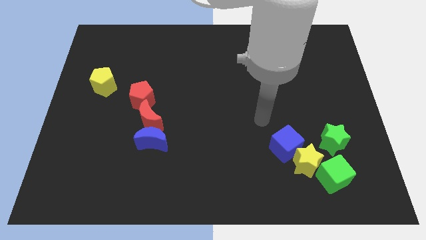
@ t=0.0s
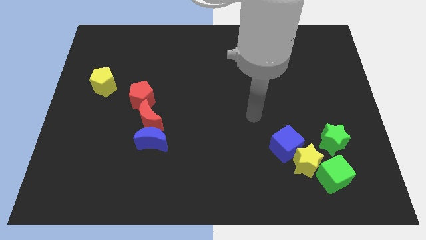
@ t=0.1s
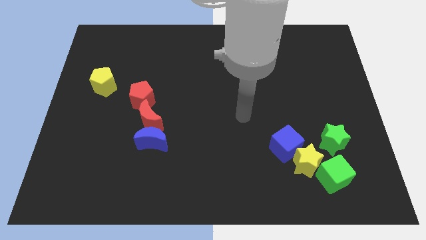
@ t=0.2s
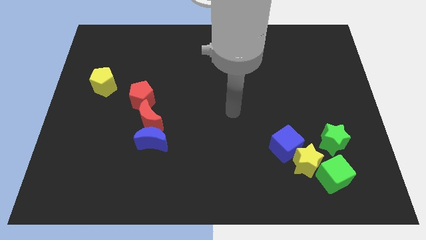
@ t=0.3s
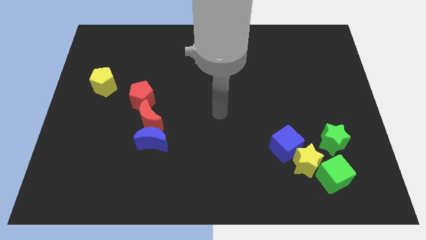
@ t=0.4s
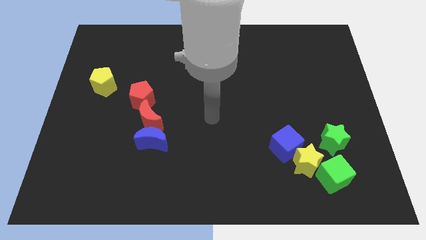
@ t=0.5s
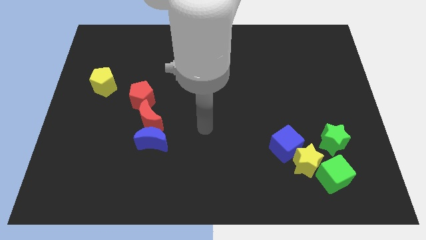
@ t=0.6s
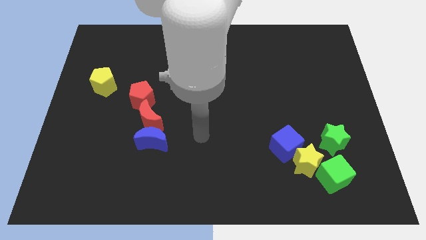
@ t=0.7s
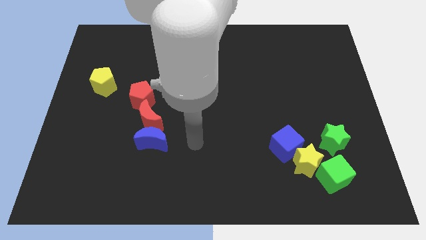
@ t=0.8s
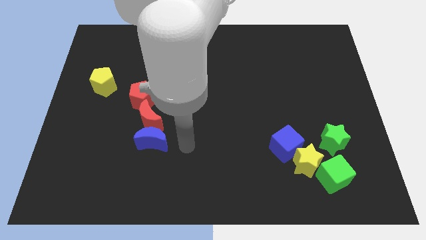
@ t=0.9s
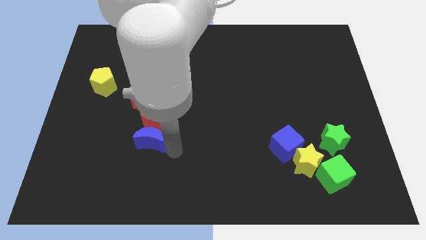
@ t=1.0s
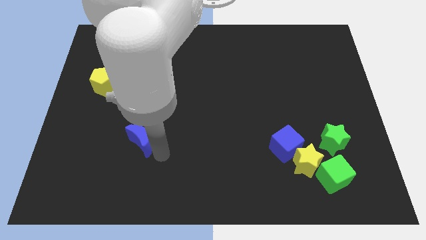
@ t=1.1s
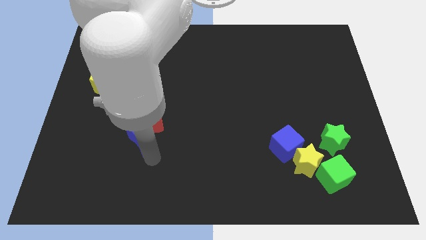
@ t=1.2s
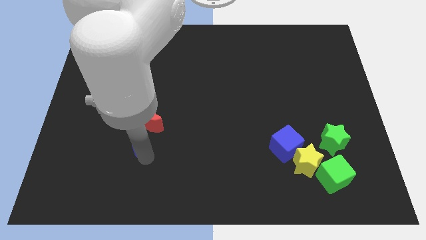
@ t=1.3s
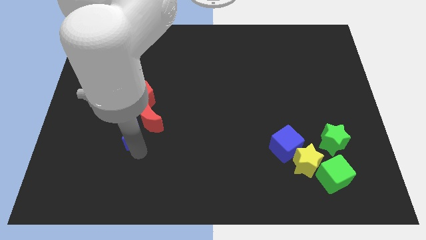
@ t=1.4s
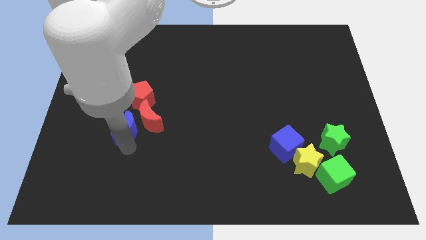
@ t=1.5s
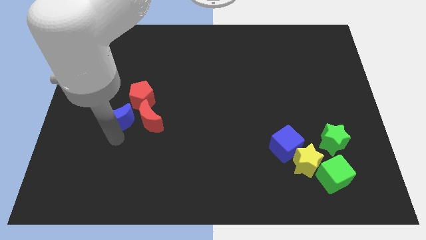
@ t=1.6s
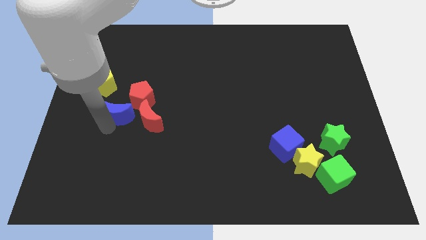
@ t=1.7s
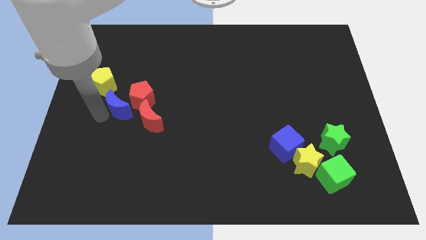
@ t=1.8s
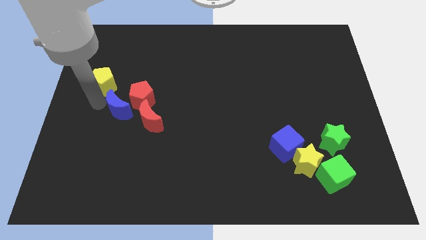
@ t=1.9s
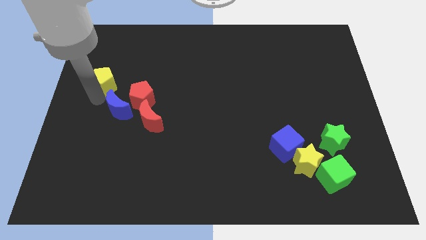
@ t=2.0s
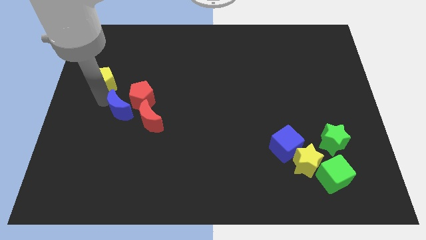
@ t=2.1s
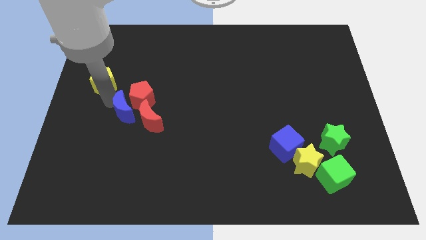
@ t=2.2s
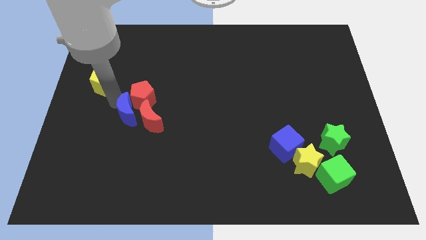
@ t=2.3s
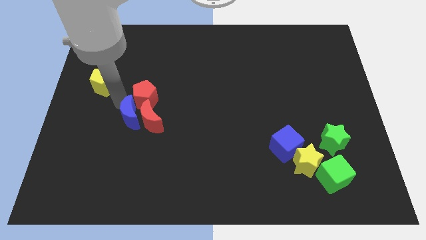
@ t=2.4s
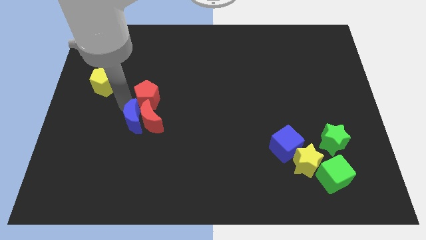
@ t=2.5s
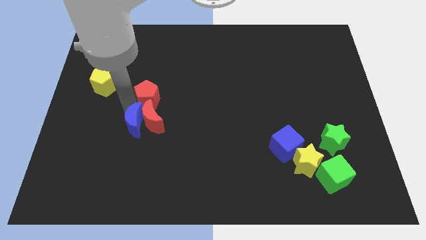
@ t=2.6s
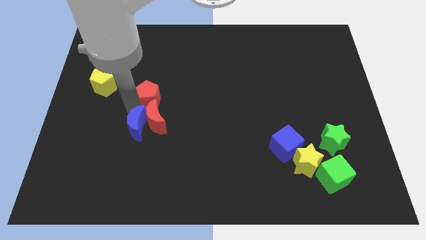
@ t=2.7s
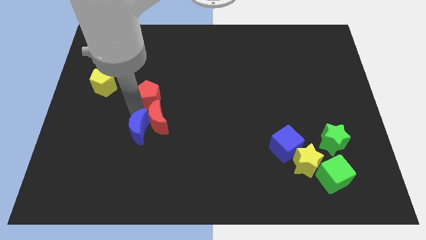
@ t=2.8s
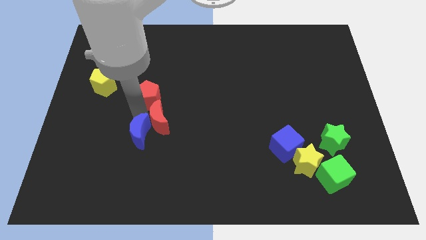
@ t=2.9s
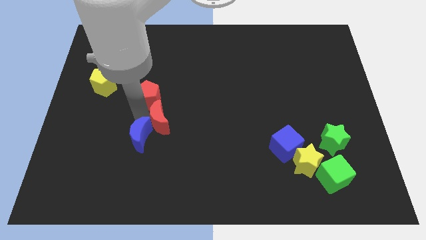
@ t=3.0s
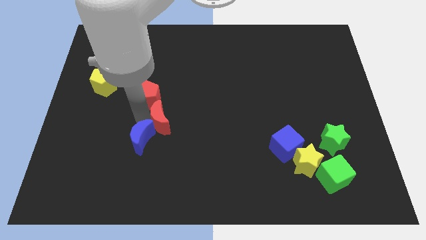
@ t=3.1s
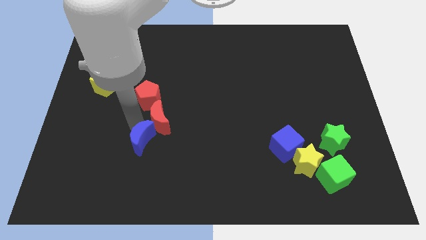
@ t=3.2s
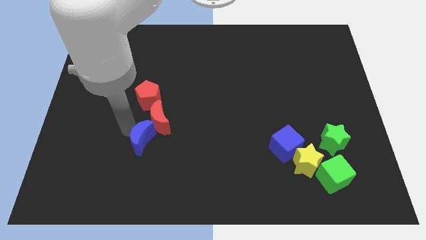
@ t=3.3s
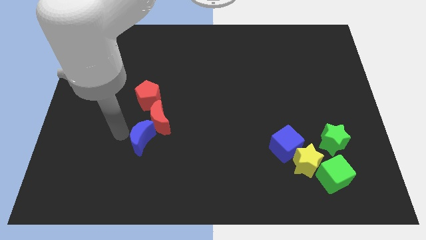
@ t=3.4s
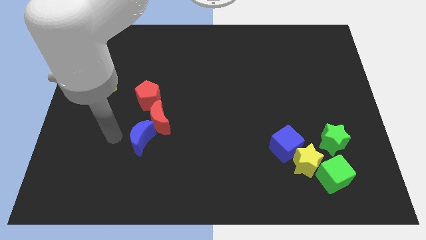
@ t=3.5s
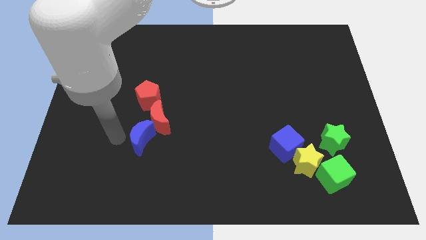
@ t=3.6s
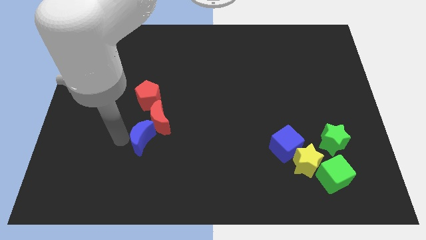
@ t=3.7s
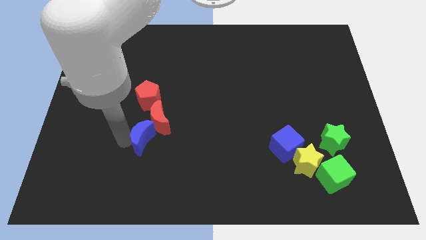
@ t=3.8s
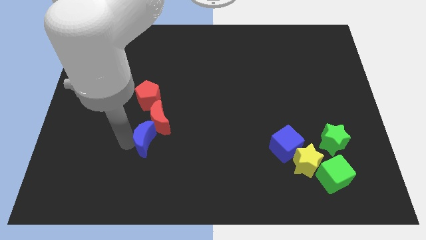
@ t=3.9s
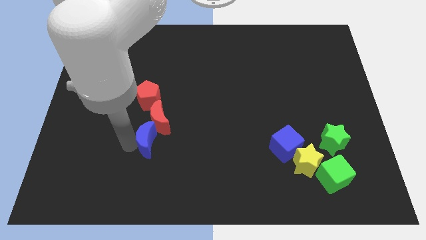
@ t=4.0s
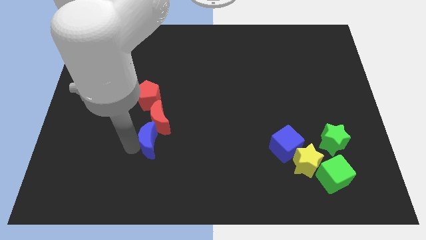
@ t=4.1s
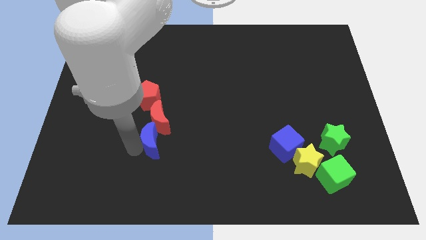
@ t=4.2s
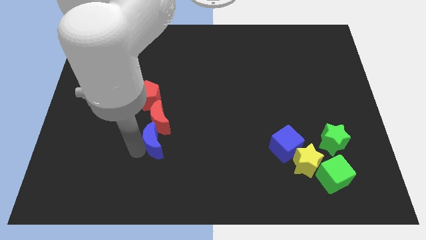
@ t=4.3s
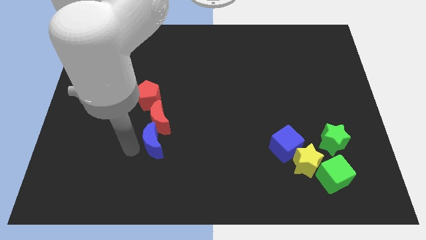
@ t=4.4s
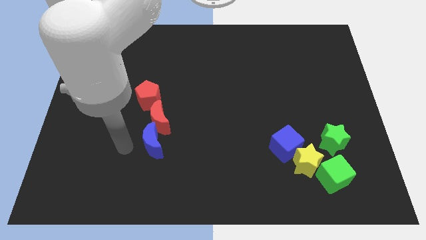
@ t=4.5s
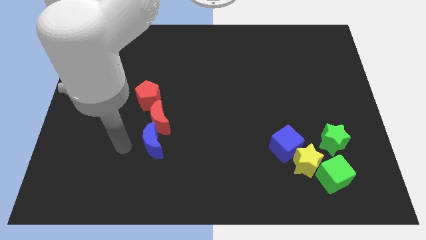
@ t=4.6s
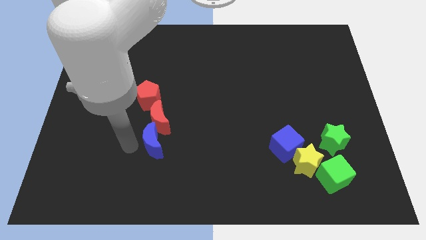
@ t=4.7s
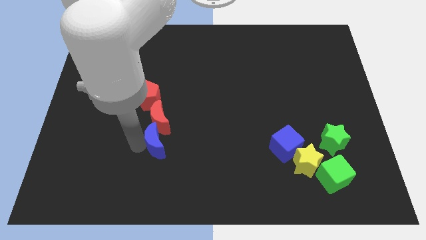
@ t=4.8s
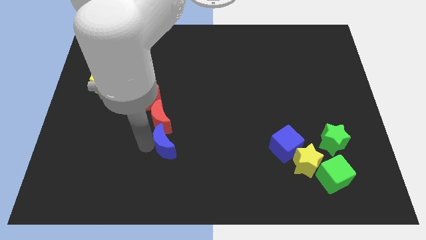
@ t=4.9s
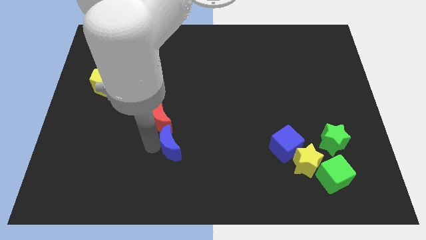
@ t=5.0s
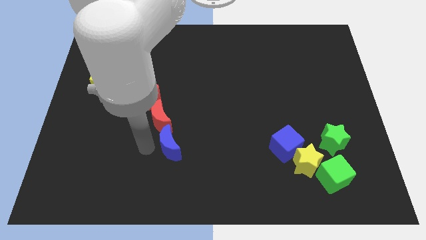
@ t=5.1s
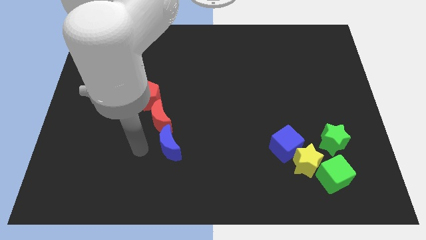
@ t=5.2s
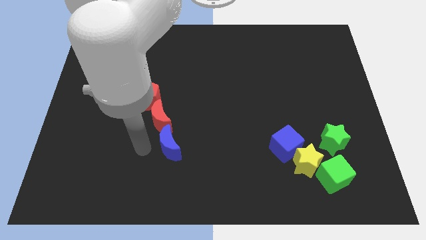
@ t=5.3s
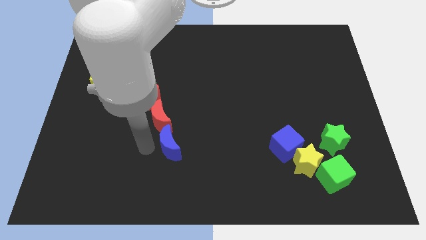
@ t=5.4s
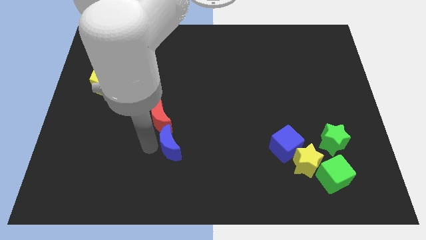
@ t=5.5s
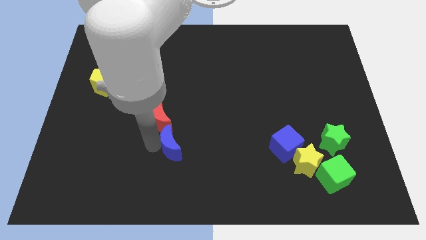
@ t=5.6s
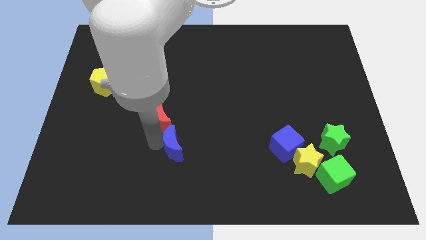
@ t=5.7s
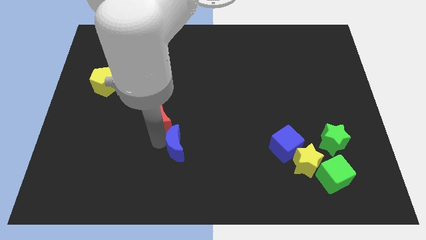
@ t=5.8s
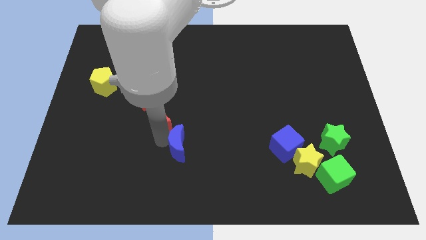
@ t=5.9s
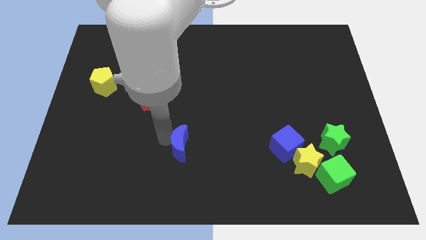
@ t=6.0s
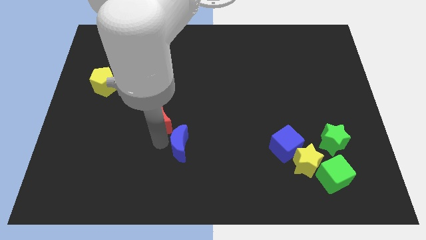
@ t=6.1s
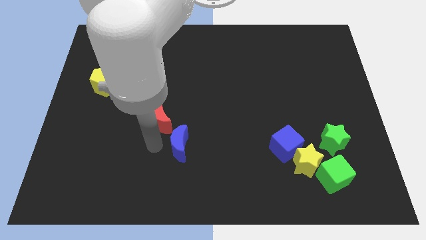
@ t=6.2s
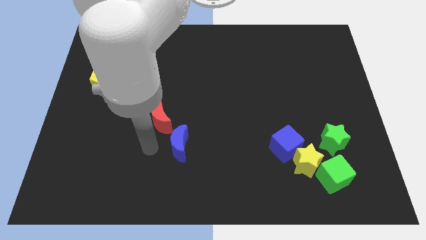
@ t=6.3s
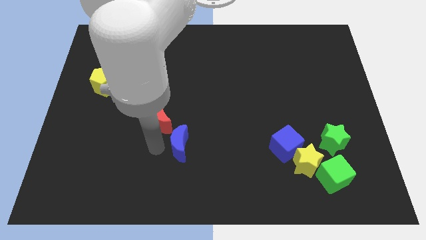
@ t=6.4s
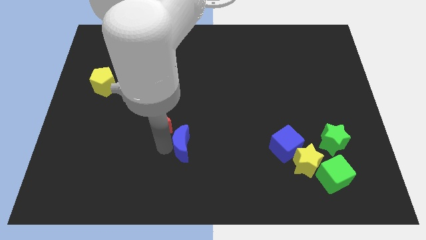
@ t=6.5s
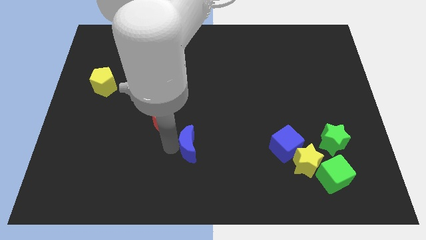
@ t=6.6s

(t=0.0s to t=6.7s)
slightly slide the blue moon right

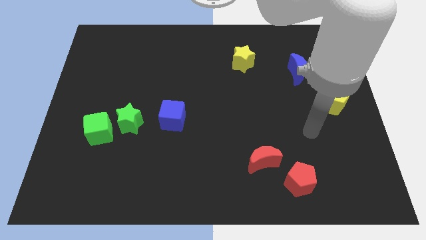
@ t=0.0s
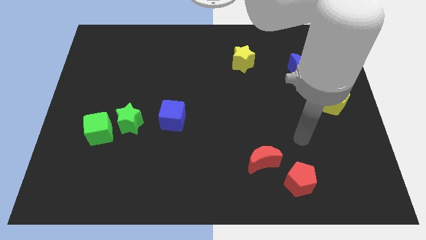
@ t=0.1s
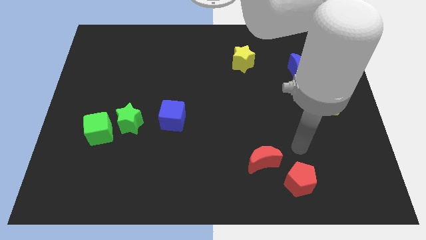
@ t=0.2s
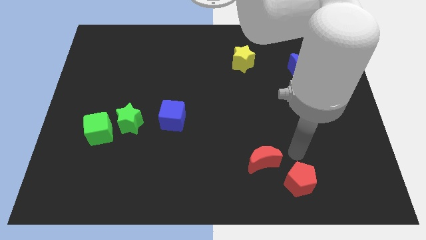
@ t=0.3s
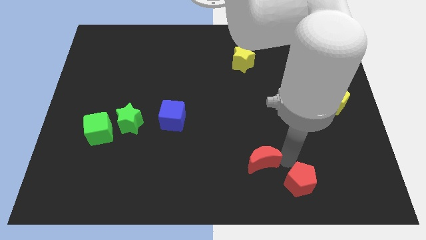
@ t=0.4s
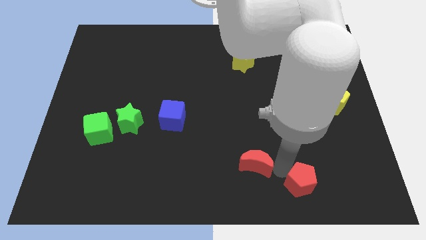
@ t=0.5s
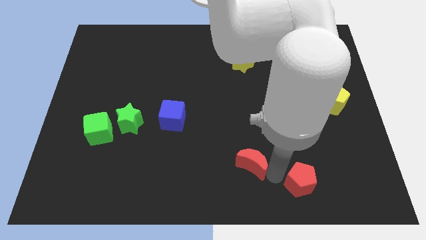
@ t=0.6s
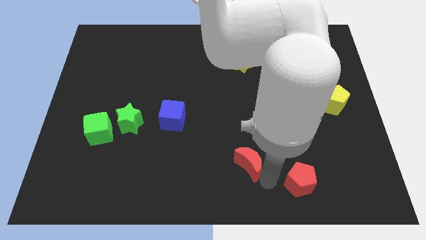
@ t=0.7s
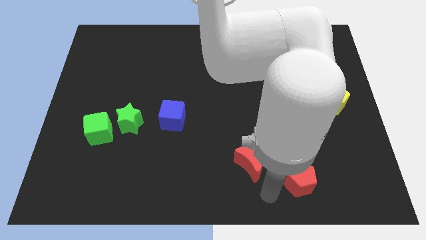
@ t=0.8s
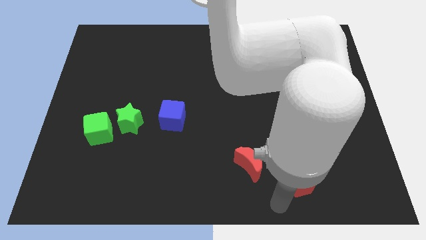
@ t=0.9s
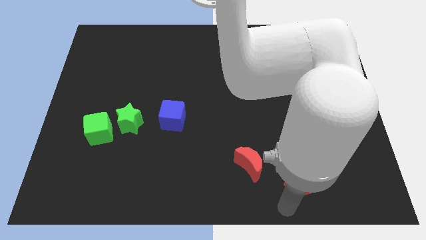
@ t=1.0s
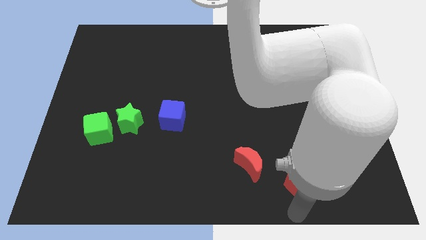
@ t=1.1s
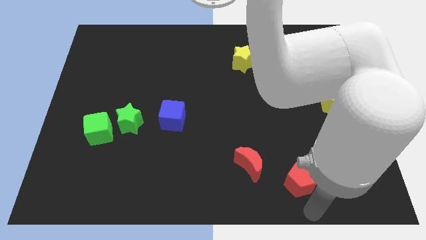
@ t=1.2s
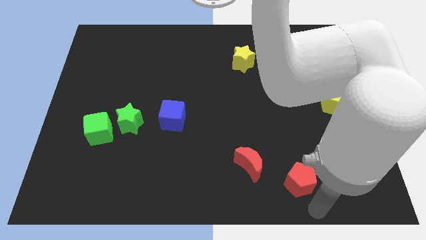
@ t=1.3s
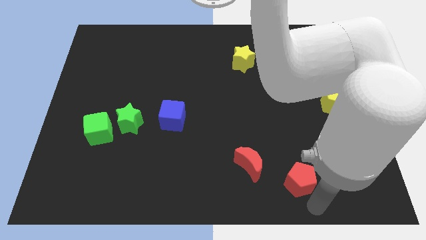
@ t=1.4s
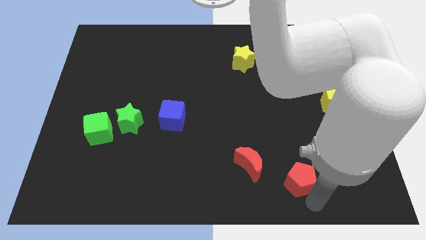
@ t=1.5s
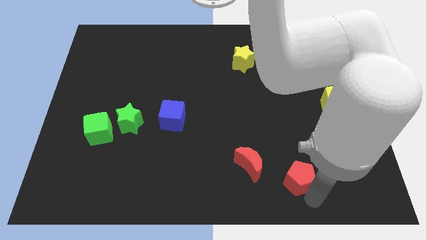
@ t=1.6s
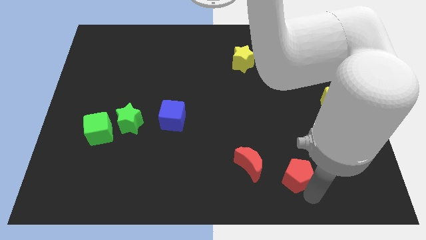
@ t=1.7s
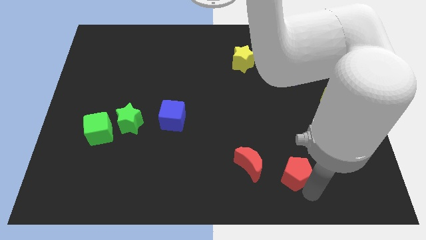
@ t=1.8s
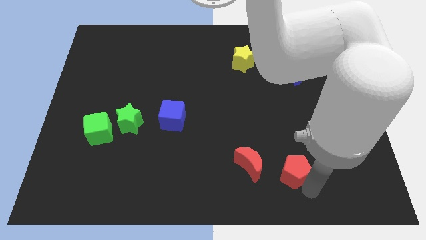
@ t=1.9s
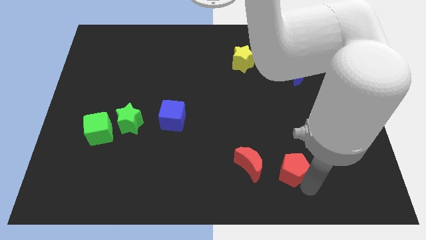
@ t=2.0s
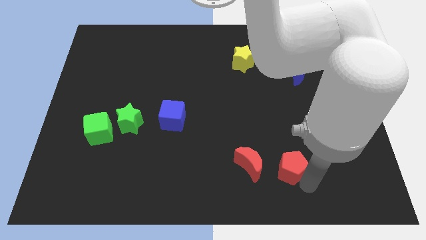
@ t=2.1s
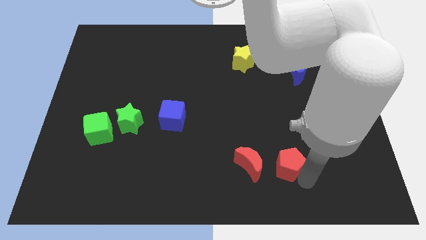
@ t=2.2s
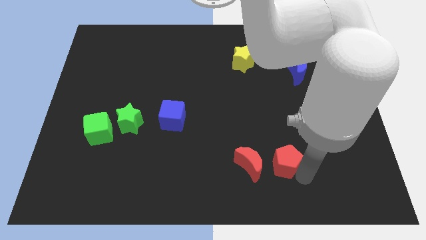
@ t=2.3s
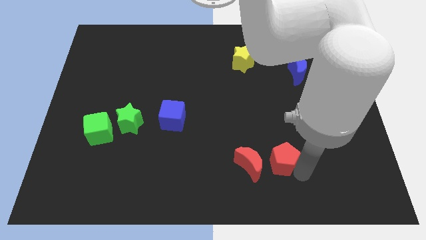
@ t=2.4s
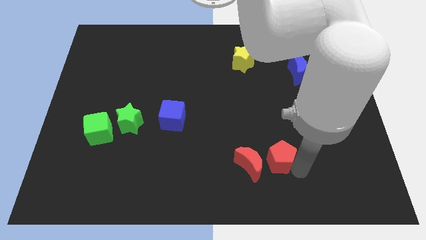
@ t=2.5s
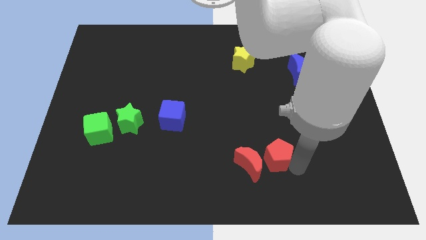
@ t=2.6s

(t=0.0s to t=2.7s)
slightly move the red pentagon upwards and to the left diagonally
